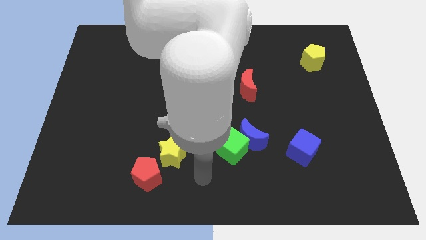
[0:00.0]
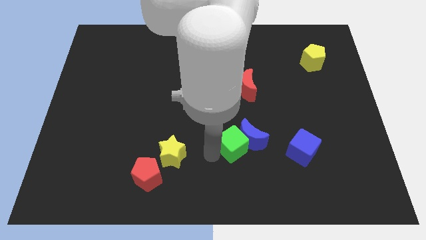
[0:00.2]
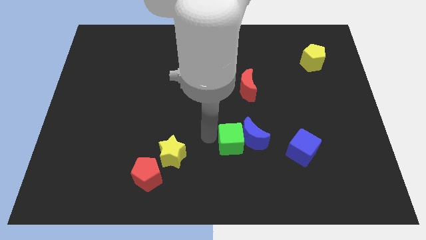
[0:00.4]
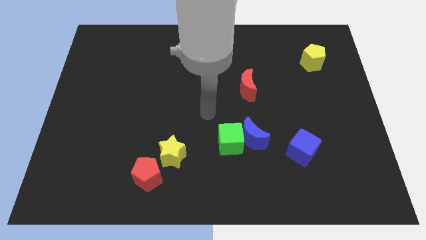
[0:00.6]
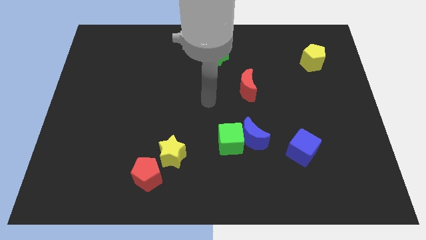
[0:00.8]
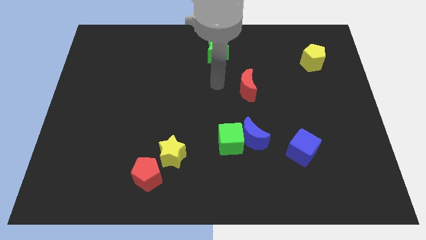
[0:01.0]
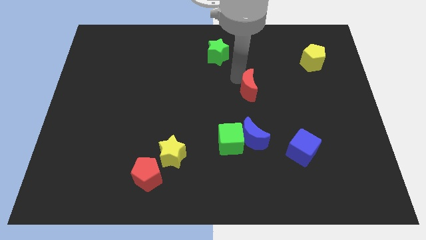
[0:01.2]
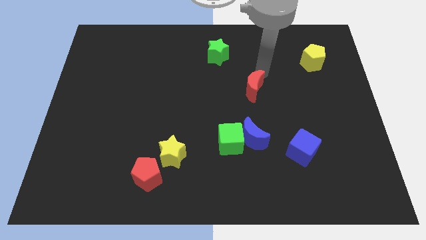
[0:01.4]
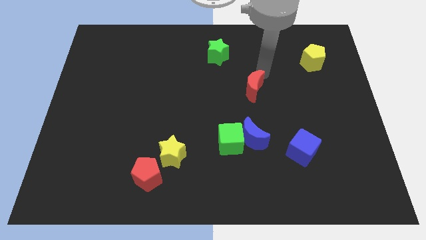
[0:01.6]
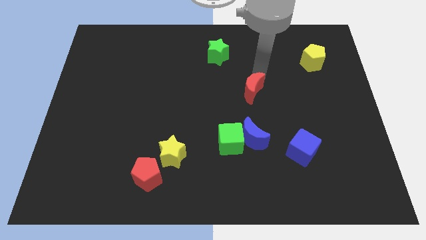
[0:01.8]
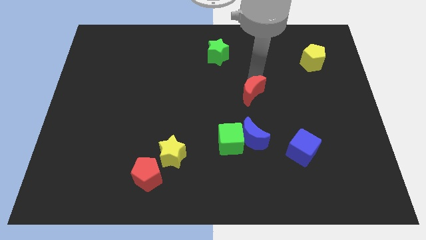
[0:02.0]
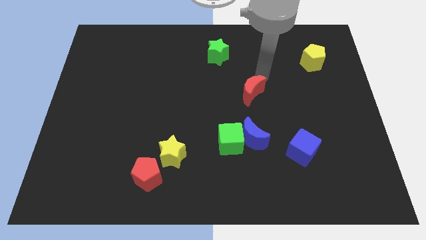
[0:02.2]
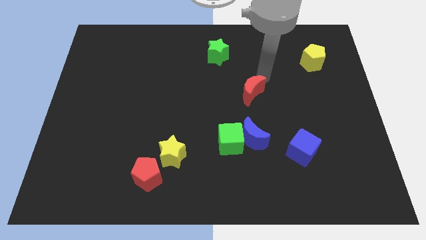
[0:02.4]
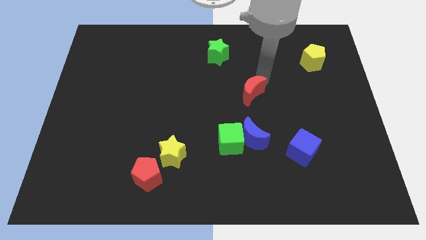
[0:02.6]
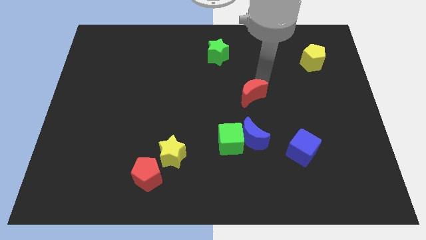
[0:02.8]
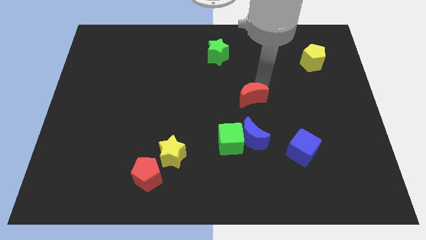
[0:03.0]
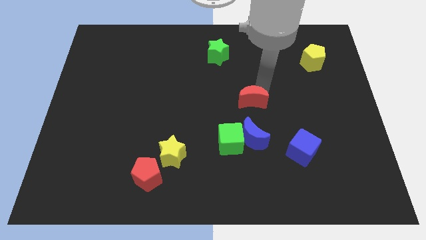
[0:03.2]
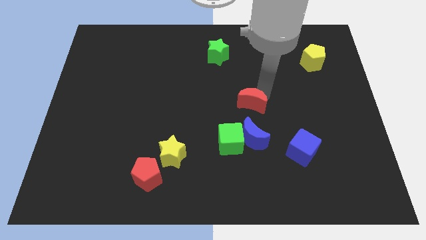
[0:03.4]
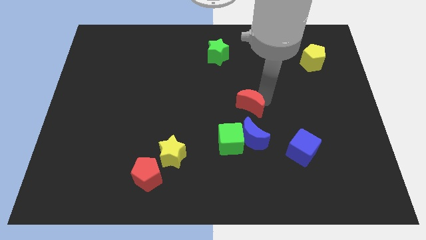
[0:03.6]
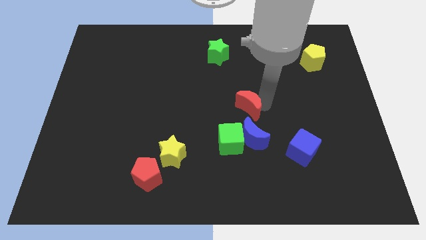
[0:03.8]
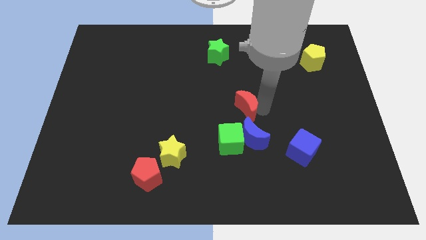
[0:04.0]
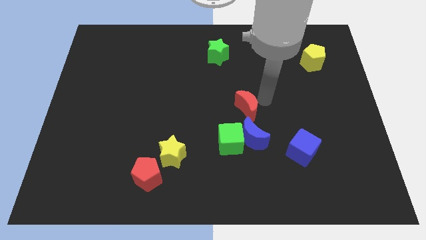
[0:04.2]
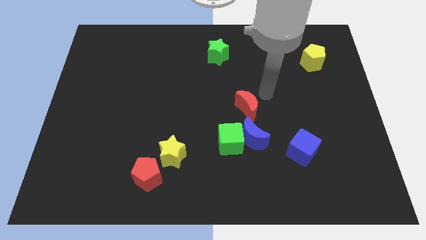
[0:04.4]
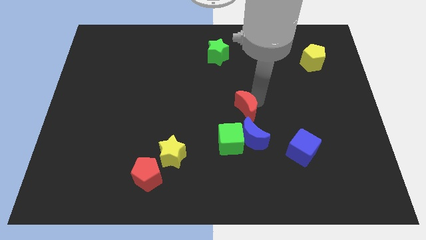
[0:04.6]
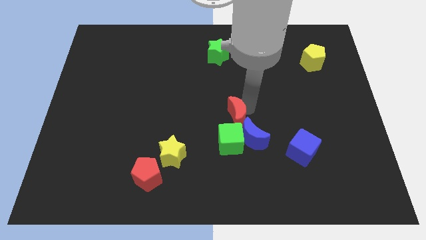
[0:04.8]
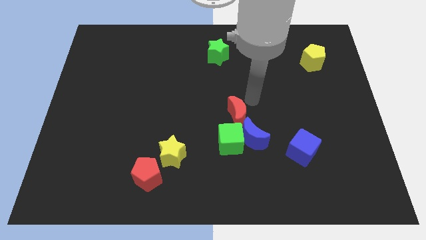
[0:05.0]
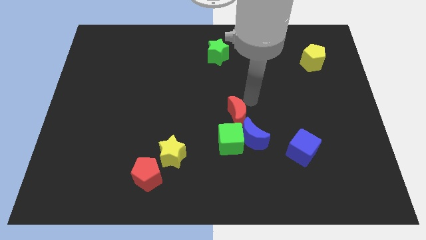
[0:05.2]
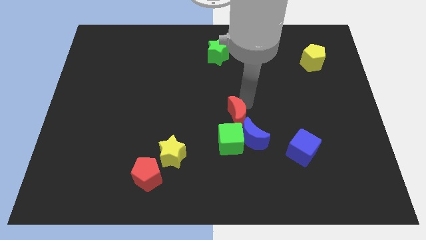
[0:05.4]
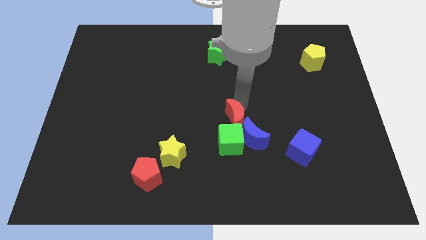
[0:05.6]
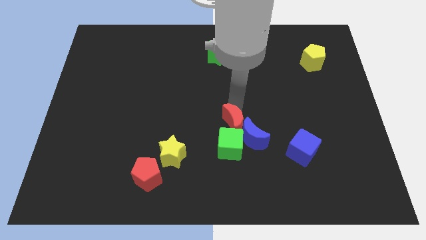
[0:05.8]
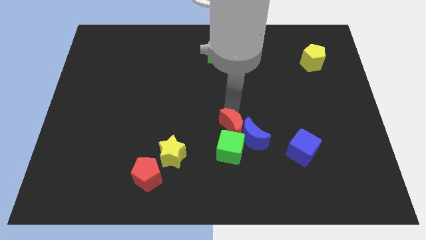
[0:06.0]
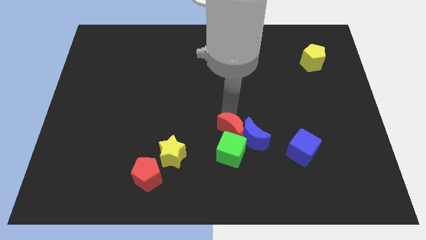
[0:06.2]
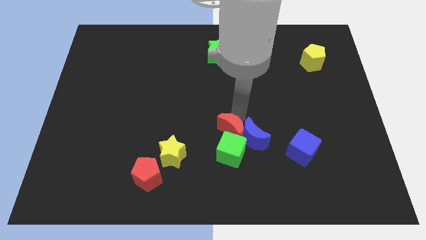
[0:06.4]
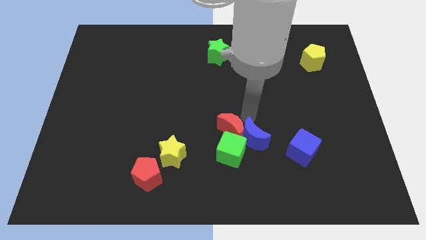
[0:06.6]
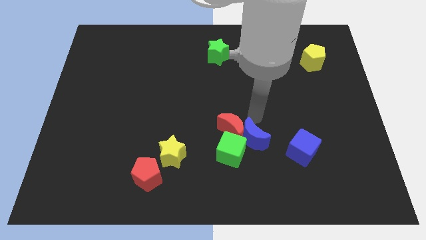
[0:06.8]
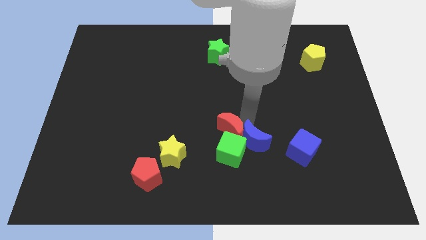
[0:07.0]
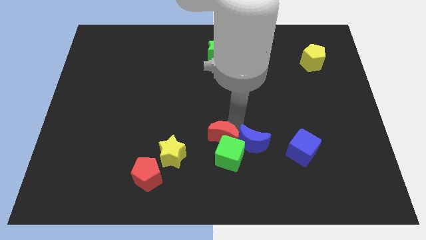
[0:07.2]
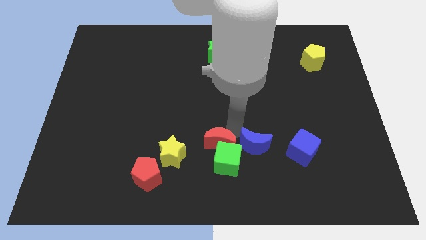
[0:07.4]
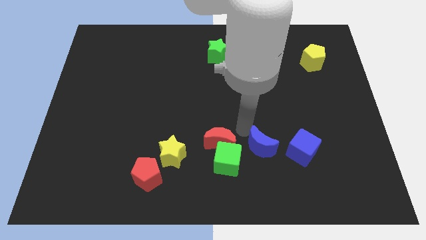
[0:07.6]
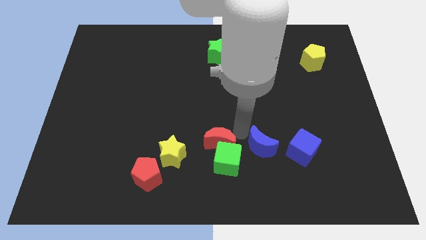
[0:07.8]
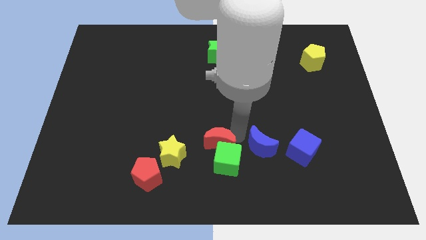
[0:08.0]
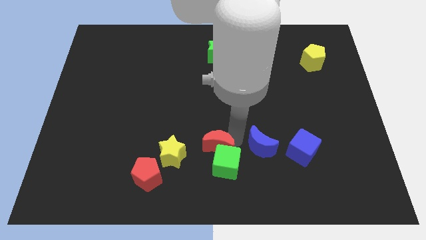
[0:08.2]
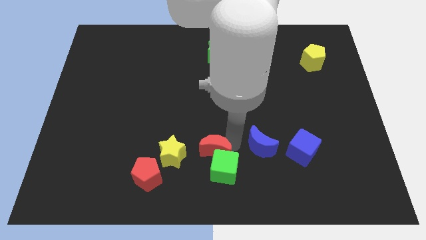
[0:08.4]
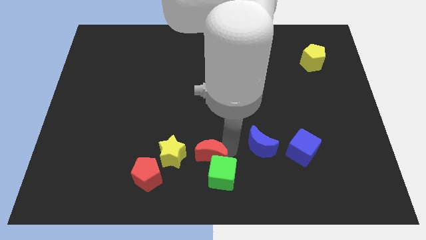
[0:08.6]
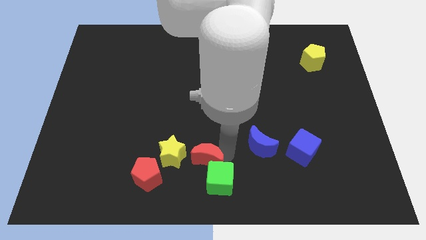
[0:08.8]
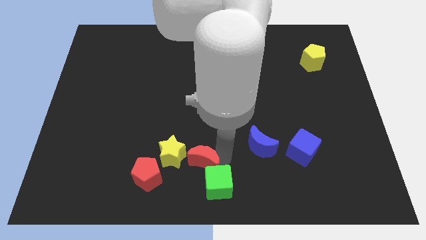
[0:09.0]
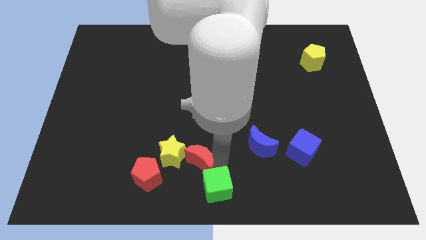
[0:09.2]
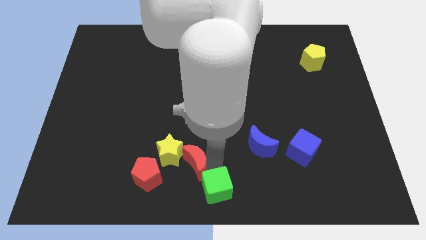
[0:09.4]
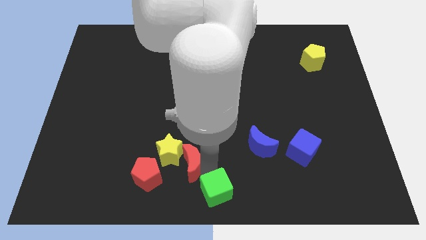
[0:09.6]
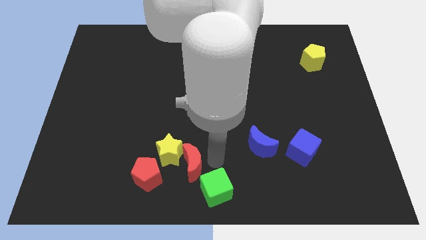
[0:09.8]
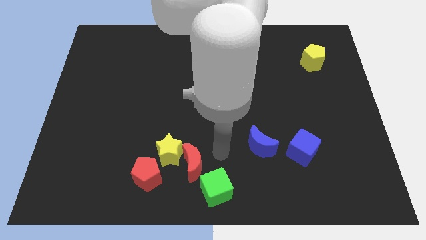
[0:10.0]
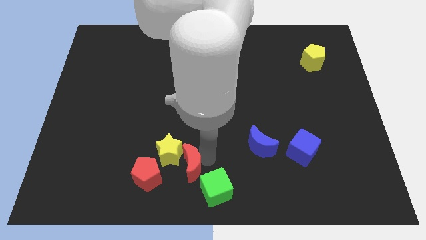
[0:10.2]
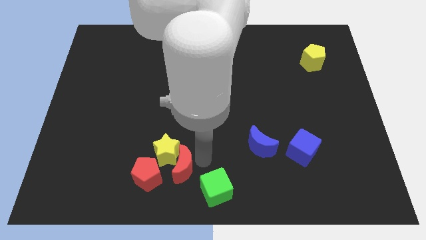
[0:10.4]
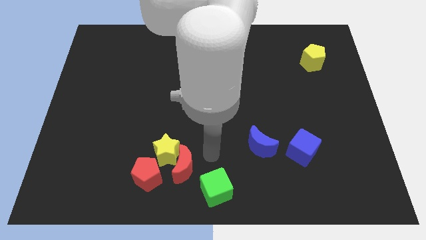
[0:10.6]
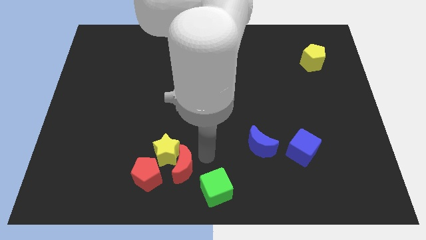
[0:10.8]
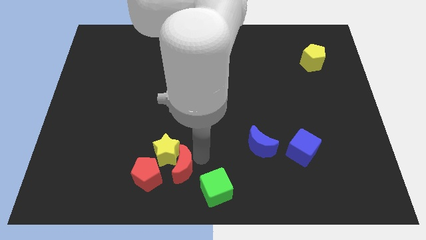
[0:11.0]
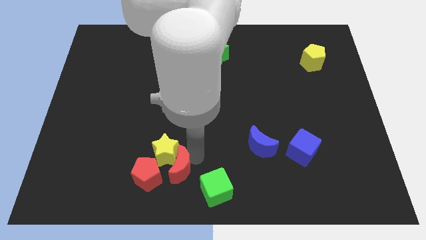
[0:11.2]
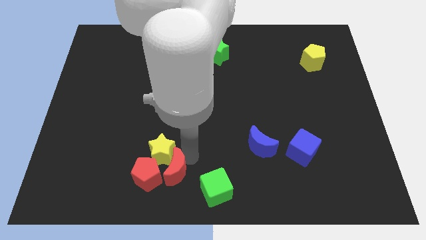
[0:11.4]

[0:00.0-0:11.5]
push the red moon close to the red pentagon

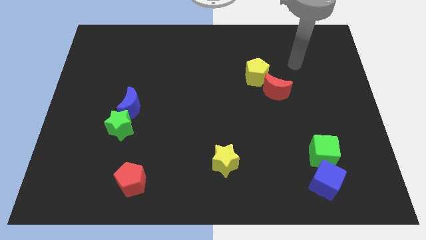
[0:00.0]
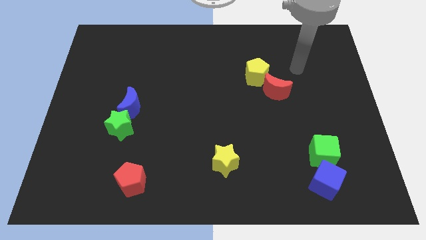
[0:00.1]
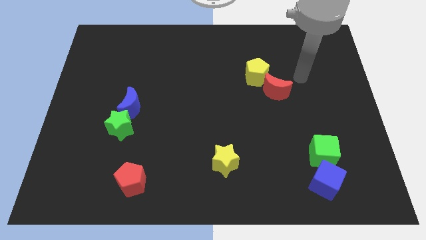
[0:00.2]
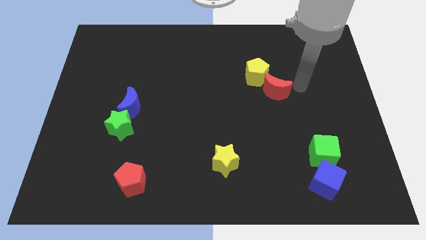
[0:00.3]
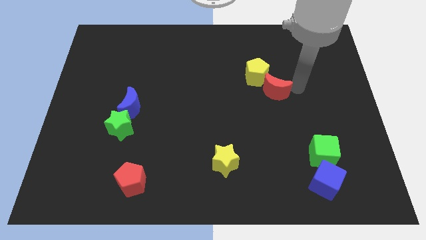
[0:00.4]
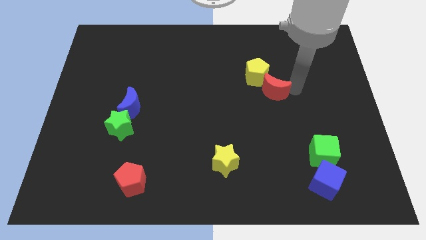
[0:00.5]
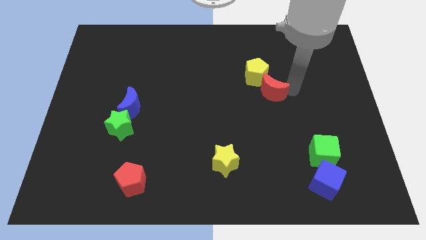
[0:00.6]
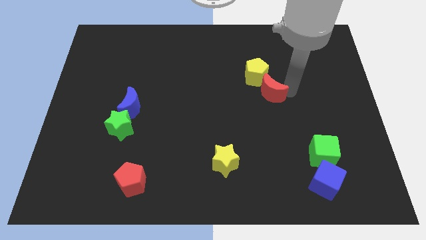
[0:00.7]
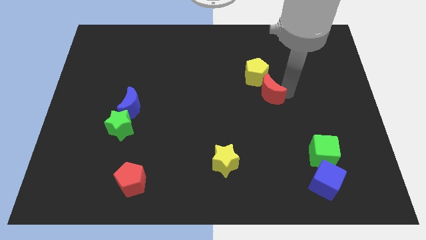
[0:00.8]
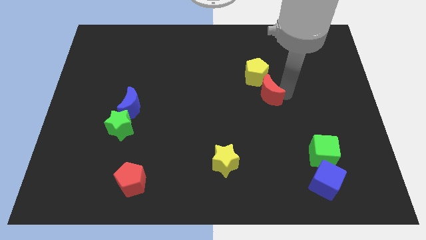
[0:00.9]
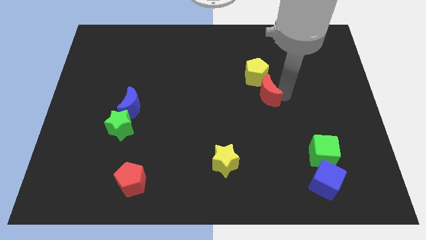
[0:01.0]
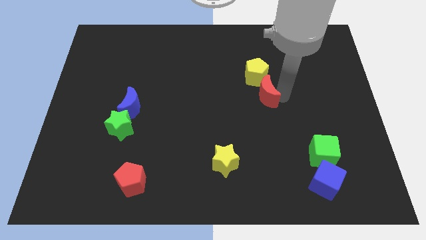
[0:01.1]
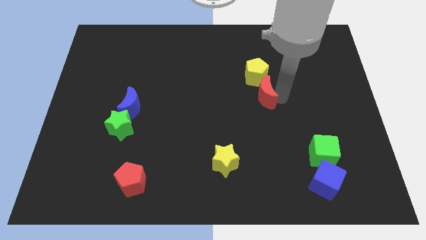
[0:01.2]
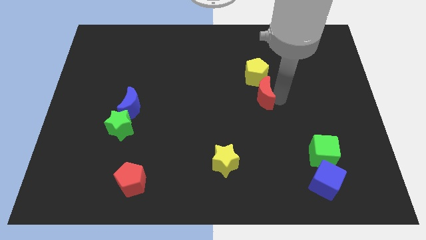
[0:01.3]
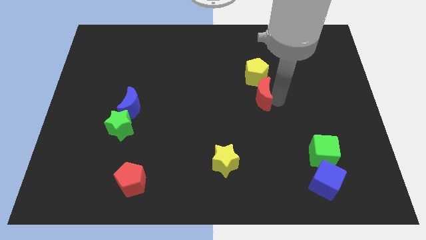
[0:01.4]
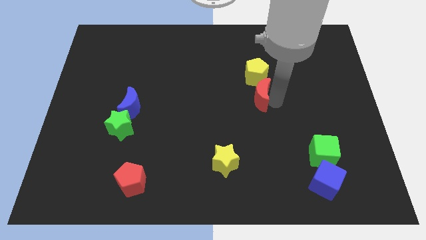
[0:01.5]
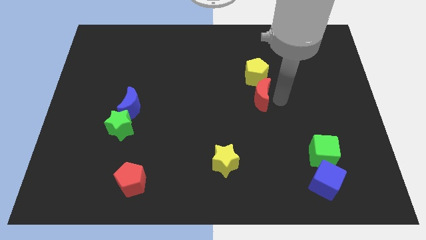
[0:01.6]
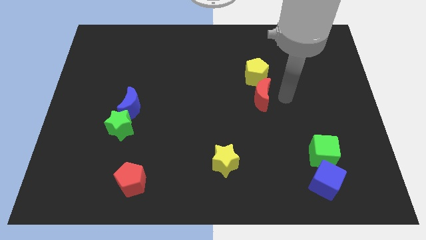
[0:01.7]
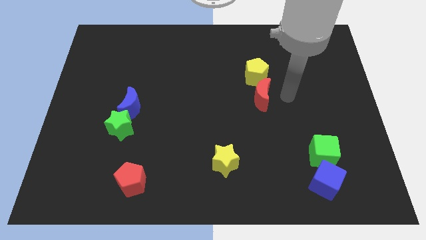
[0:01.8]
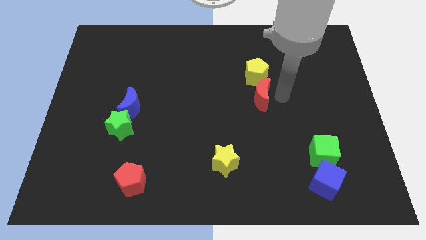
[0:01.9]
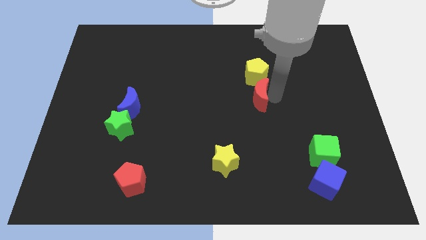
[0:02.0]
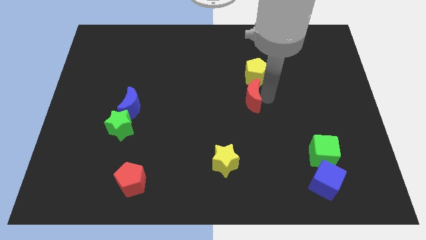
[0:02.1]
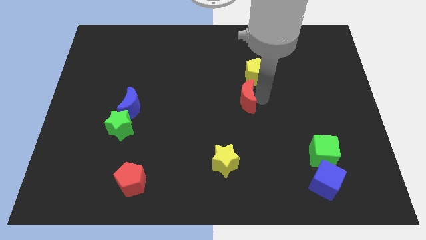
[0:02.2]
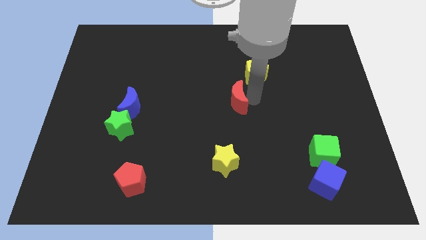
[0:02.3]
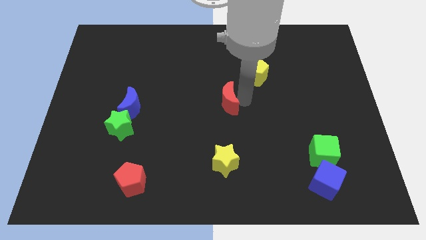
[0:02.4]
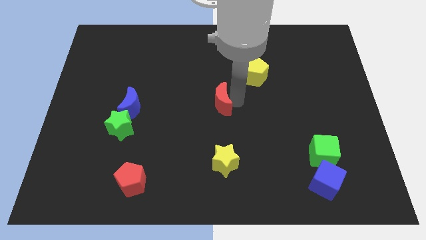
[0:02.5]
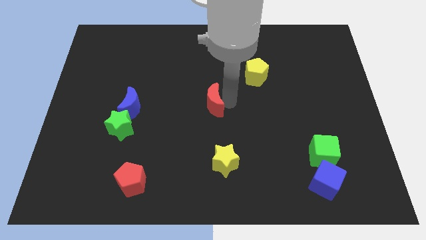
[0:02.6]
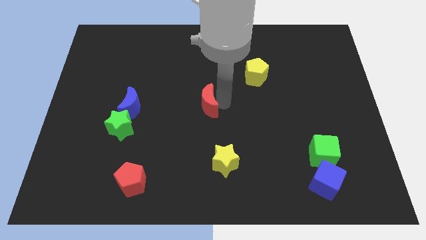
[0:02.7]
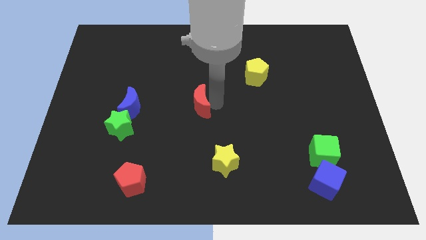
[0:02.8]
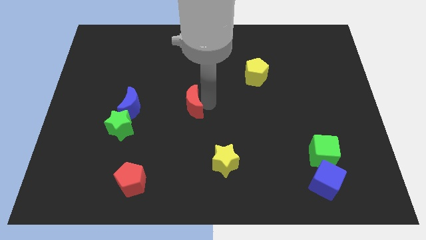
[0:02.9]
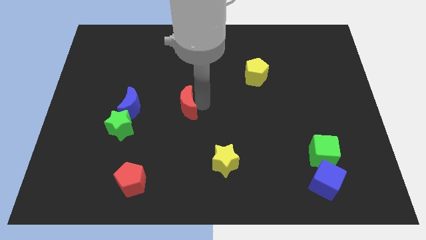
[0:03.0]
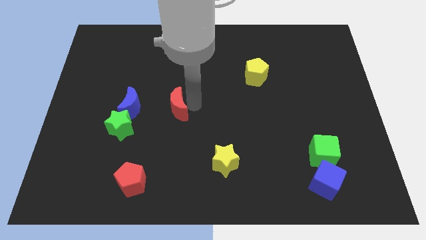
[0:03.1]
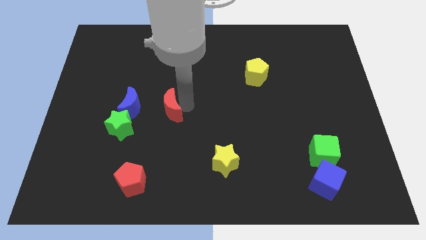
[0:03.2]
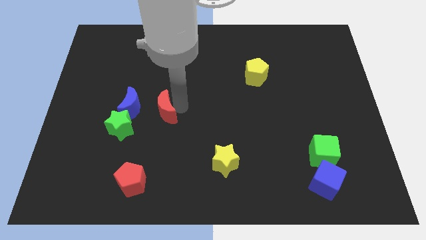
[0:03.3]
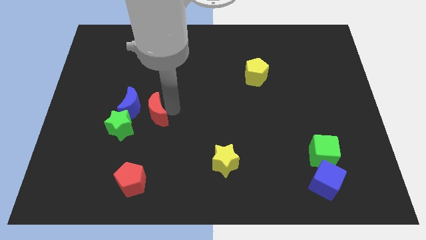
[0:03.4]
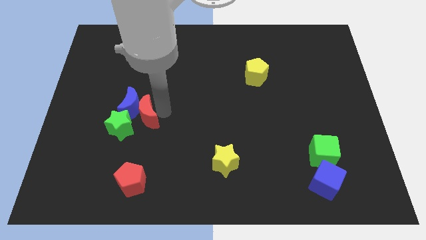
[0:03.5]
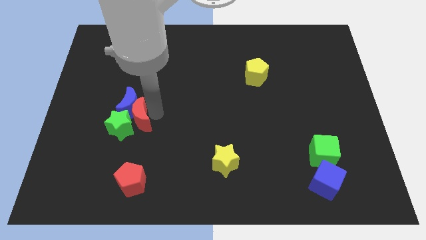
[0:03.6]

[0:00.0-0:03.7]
push the red moon towards the green star
